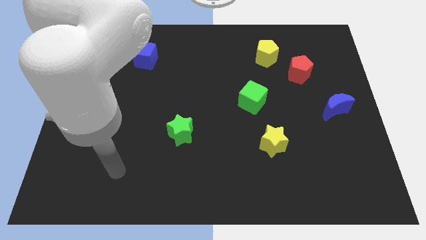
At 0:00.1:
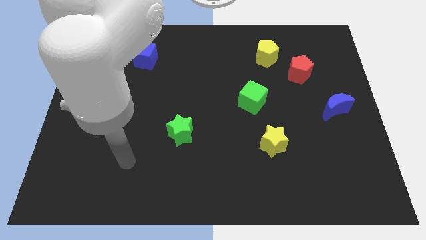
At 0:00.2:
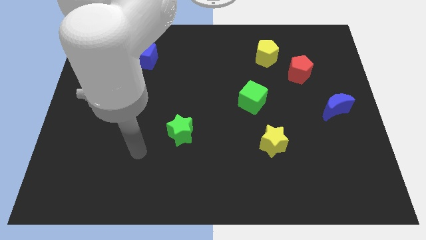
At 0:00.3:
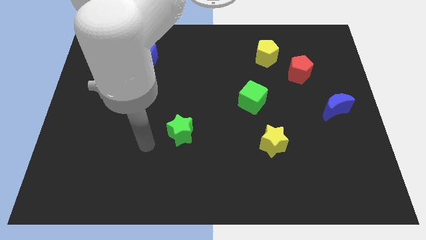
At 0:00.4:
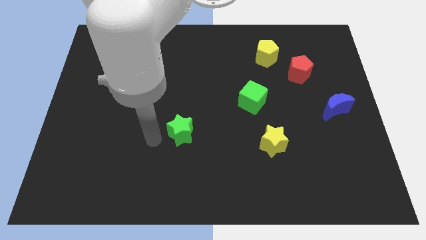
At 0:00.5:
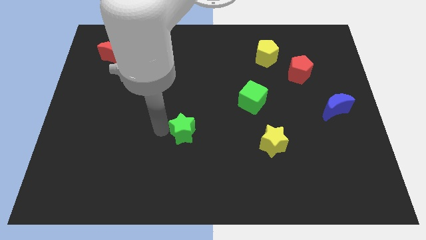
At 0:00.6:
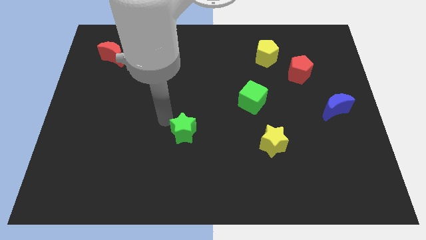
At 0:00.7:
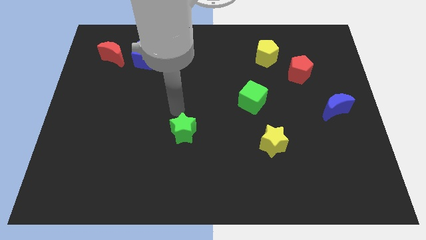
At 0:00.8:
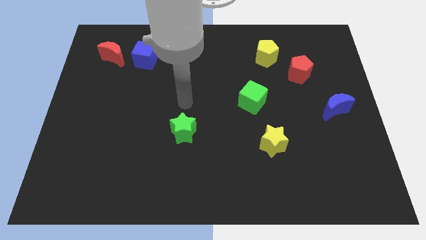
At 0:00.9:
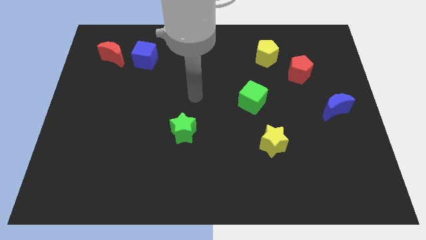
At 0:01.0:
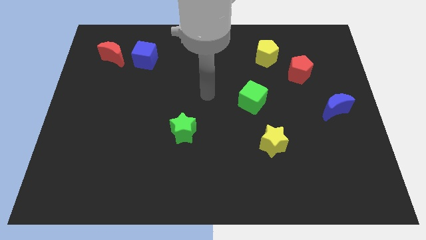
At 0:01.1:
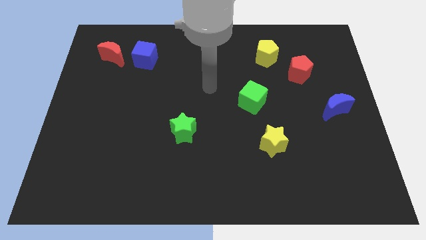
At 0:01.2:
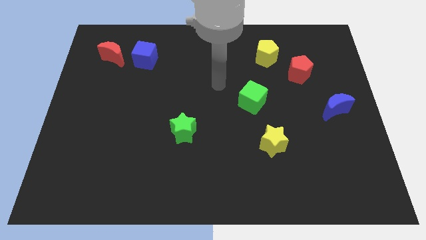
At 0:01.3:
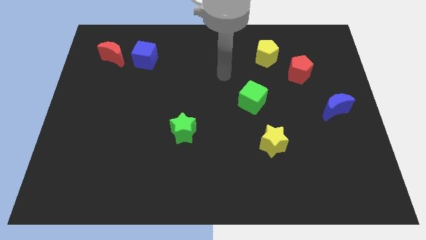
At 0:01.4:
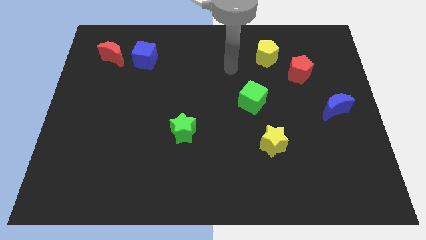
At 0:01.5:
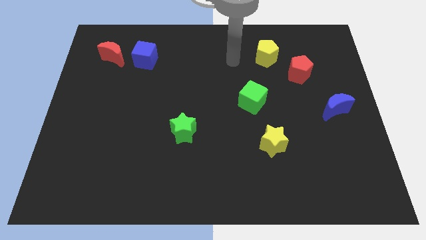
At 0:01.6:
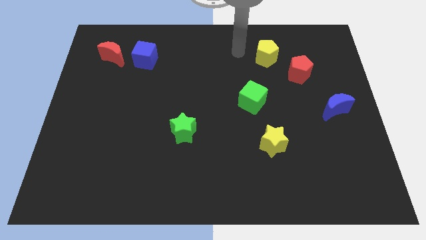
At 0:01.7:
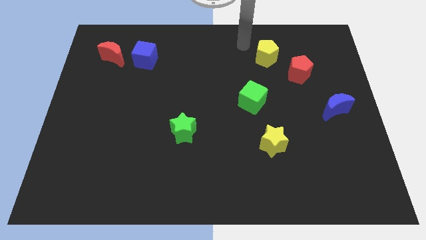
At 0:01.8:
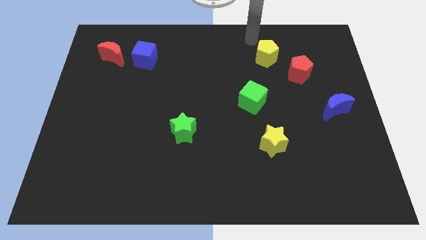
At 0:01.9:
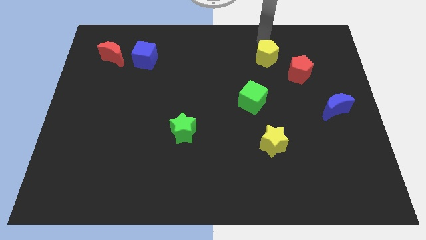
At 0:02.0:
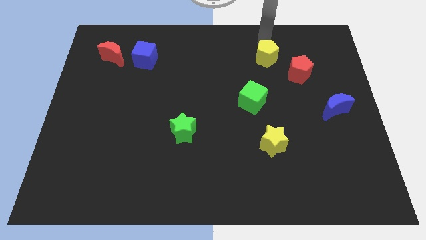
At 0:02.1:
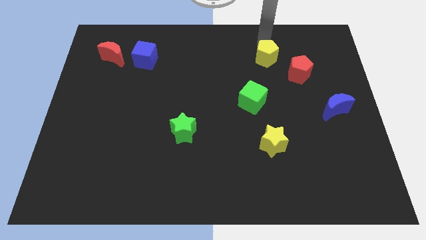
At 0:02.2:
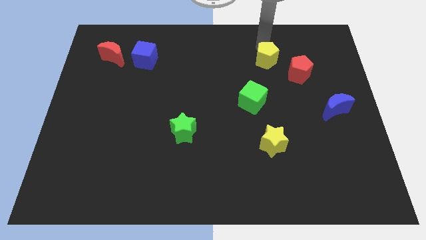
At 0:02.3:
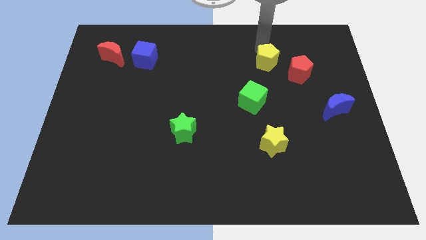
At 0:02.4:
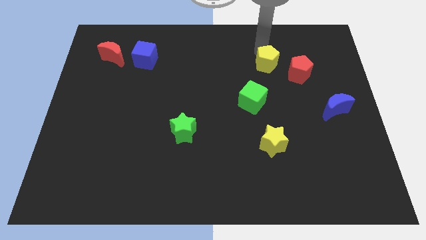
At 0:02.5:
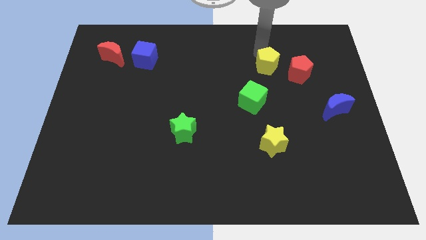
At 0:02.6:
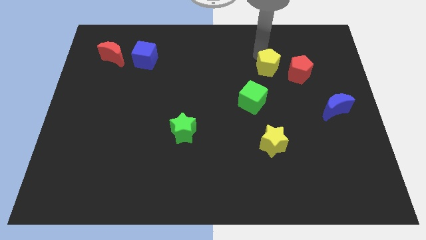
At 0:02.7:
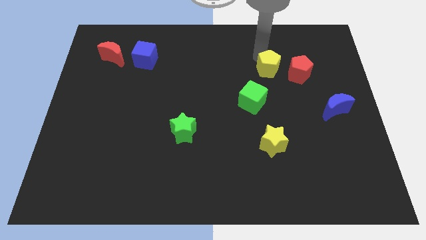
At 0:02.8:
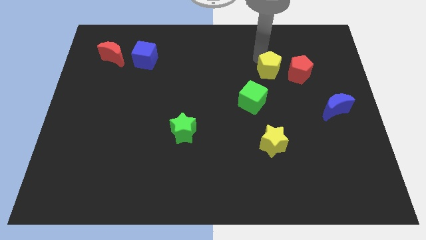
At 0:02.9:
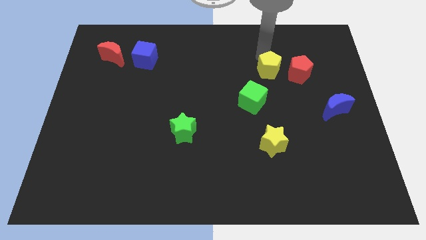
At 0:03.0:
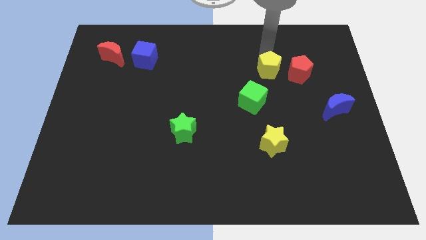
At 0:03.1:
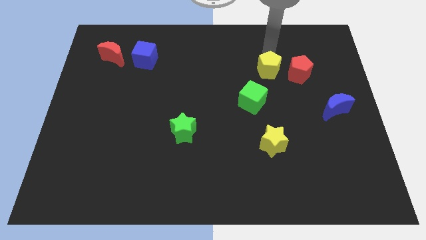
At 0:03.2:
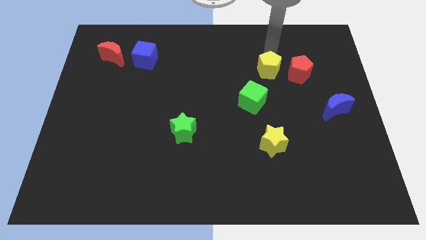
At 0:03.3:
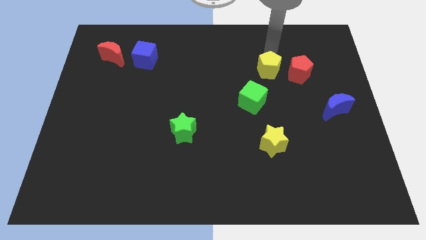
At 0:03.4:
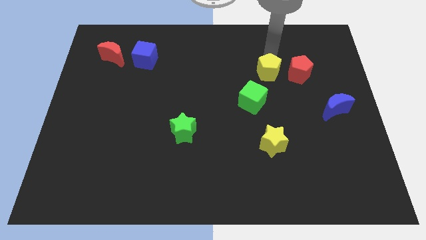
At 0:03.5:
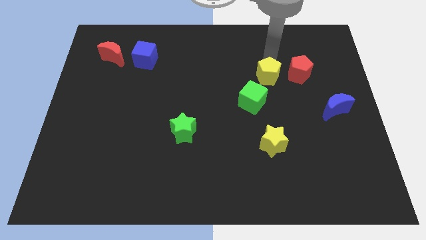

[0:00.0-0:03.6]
slide the yellow pentagon slightly down

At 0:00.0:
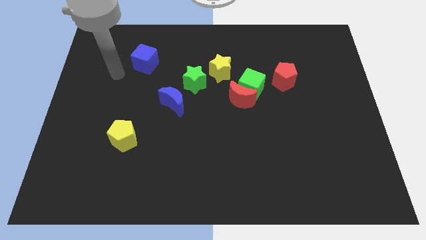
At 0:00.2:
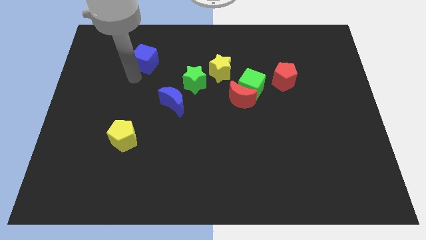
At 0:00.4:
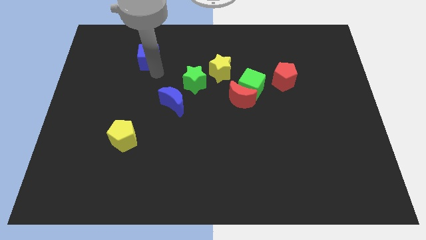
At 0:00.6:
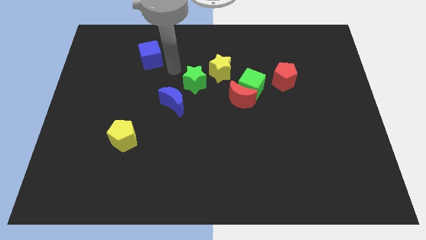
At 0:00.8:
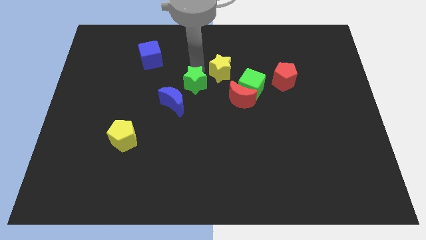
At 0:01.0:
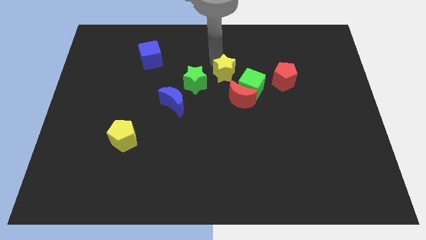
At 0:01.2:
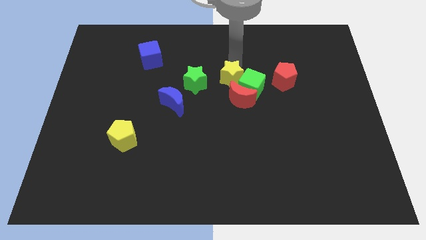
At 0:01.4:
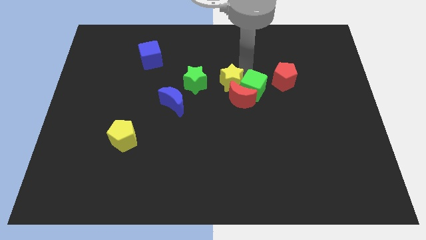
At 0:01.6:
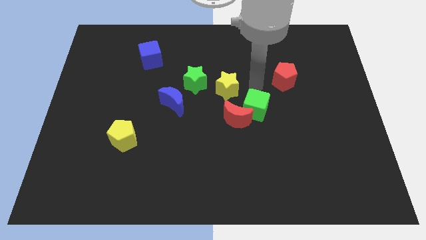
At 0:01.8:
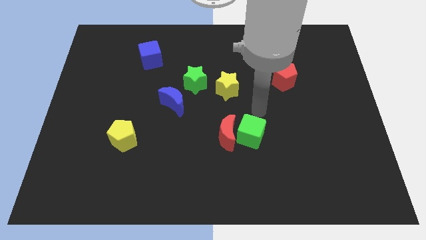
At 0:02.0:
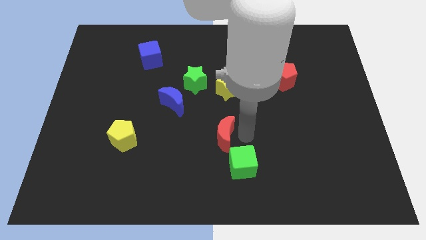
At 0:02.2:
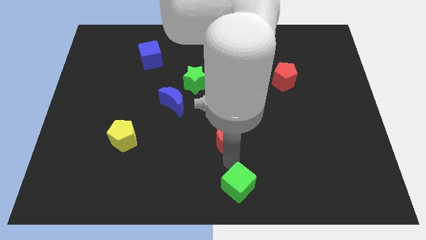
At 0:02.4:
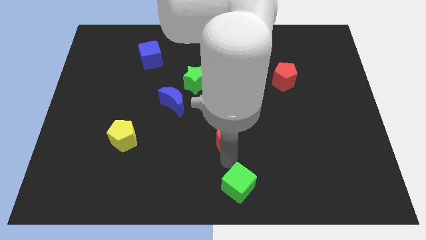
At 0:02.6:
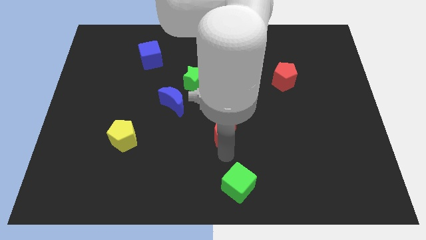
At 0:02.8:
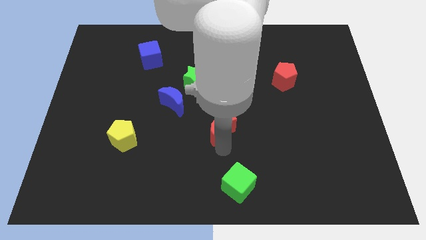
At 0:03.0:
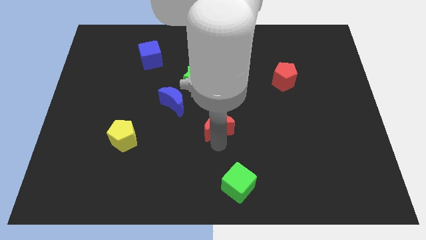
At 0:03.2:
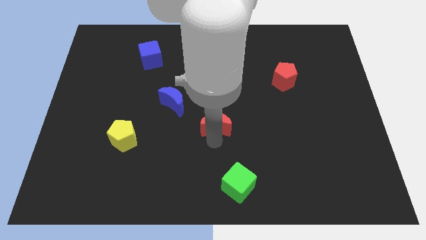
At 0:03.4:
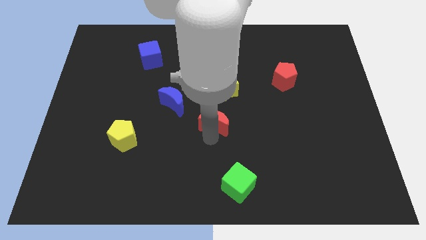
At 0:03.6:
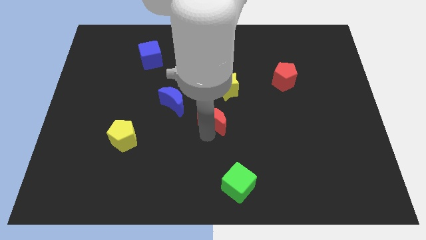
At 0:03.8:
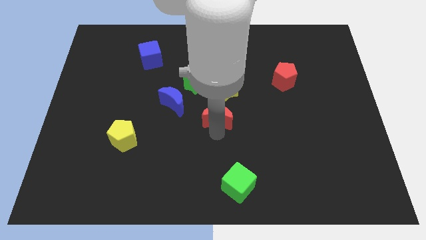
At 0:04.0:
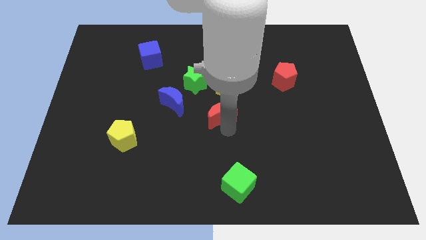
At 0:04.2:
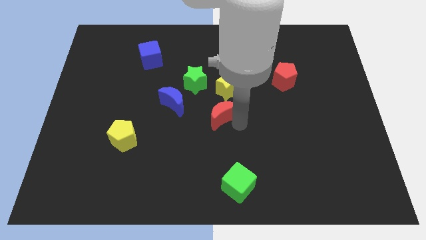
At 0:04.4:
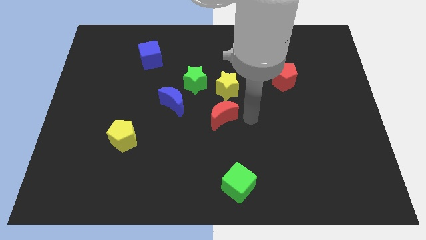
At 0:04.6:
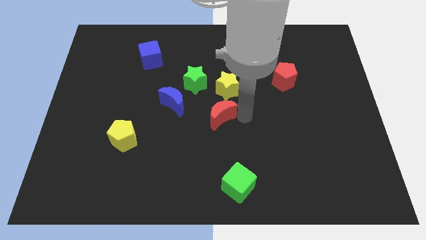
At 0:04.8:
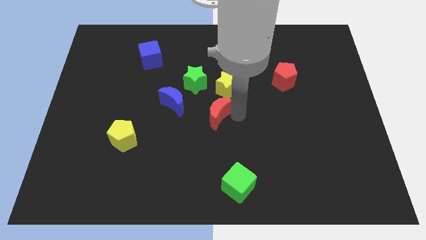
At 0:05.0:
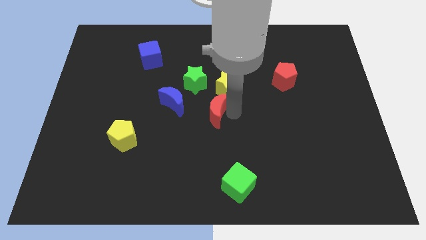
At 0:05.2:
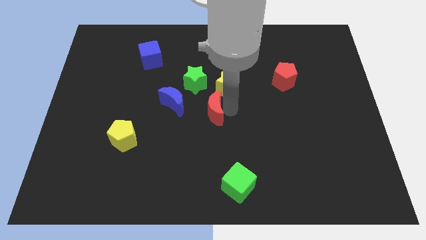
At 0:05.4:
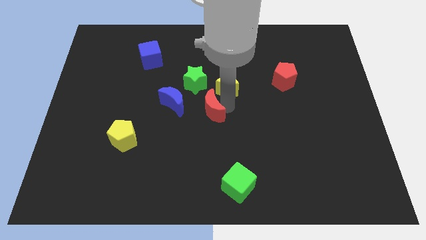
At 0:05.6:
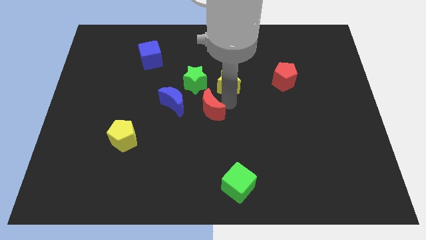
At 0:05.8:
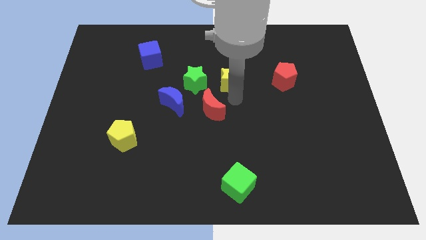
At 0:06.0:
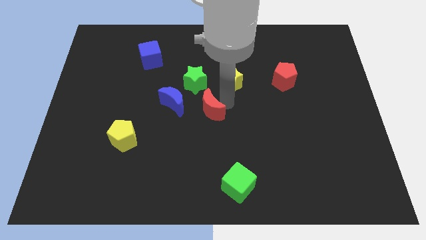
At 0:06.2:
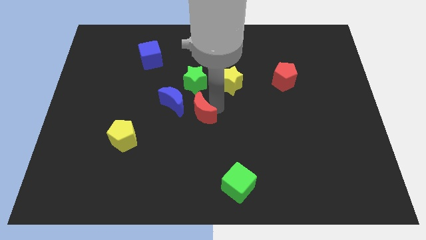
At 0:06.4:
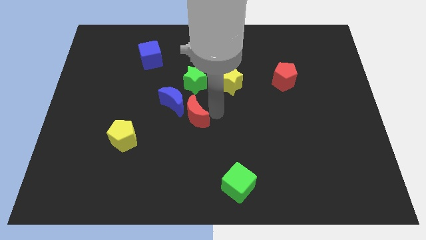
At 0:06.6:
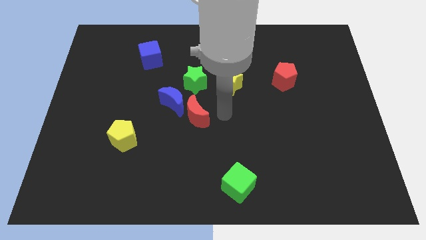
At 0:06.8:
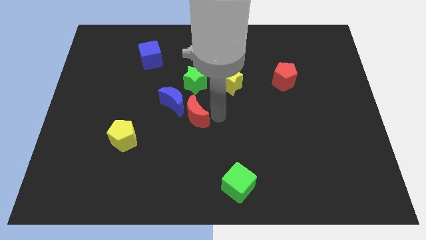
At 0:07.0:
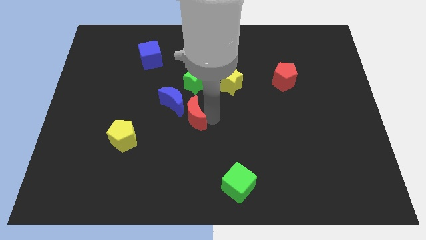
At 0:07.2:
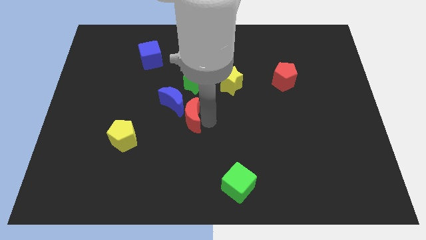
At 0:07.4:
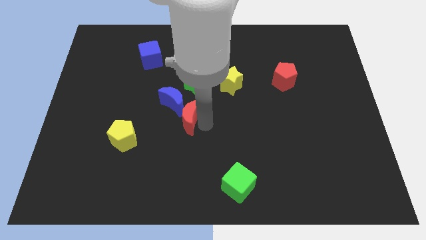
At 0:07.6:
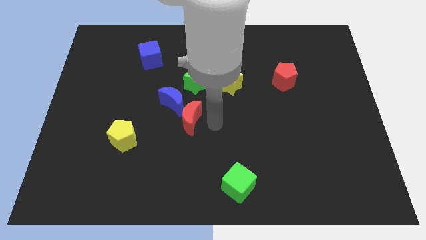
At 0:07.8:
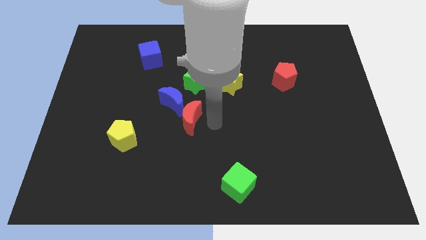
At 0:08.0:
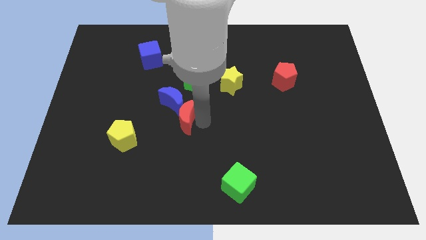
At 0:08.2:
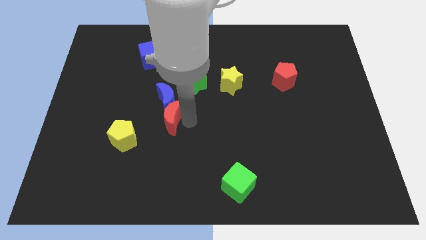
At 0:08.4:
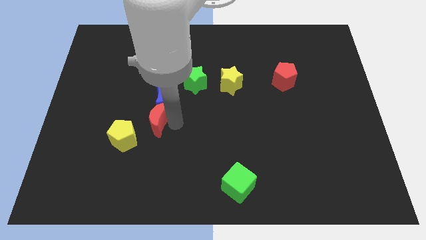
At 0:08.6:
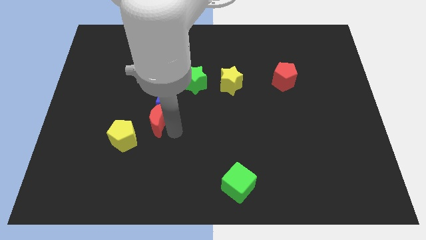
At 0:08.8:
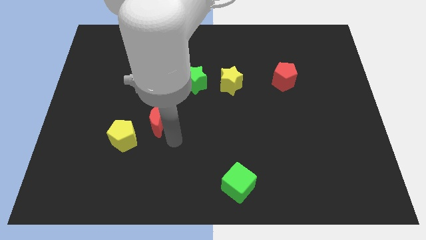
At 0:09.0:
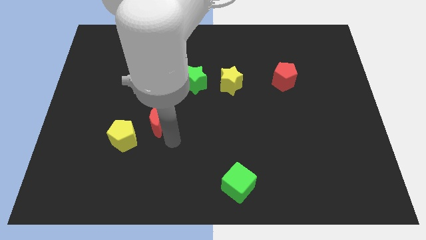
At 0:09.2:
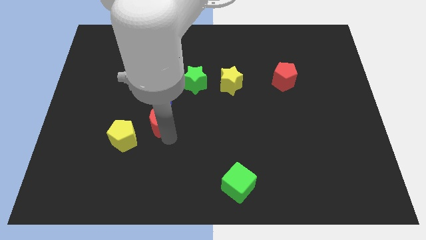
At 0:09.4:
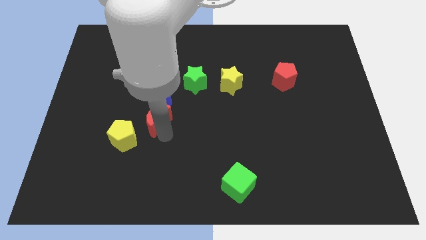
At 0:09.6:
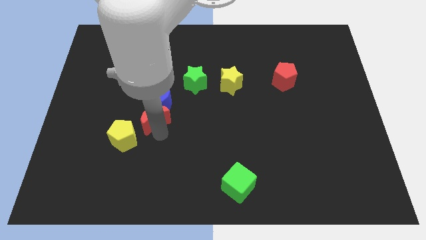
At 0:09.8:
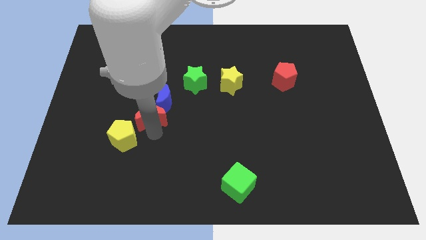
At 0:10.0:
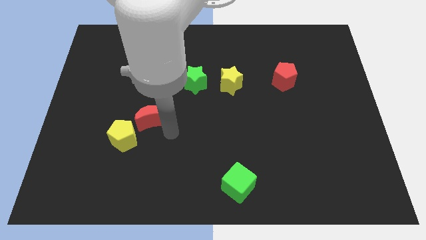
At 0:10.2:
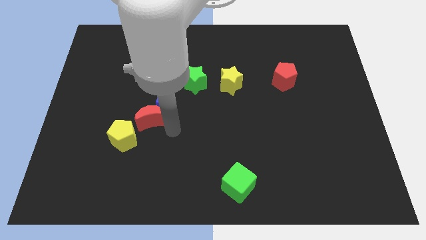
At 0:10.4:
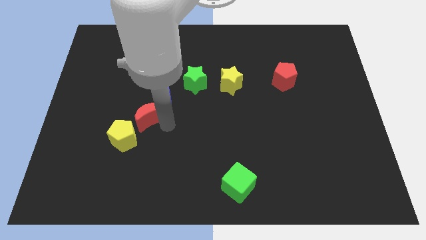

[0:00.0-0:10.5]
push the red moon to the left
